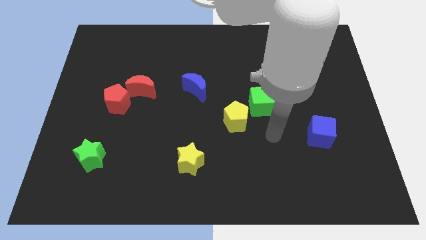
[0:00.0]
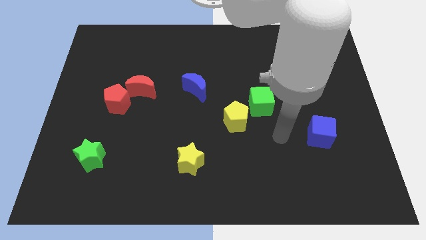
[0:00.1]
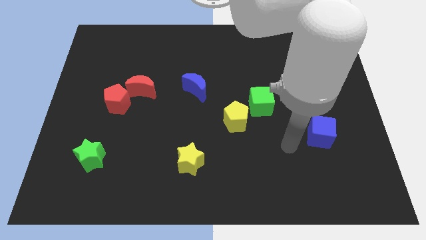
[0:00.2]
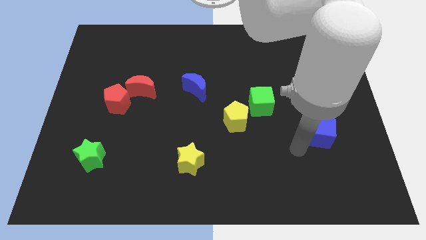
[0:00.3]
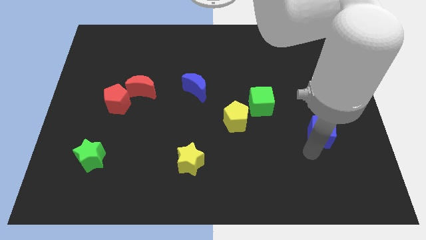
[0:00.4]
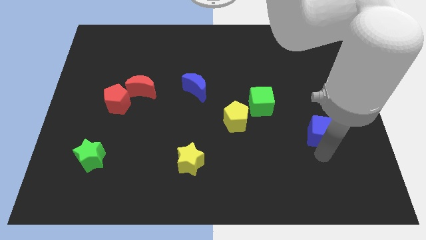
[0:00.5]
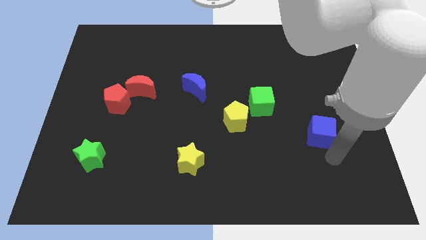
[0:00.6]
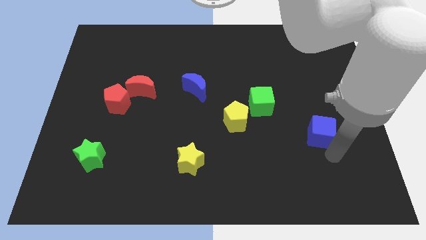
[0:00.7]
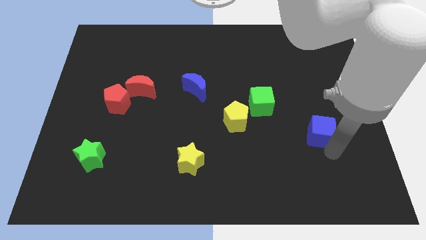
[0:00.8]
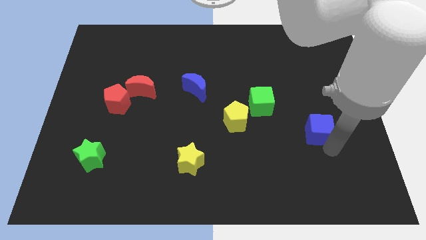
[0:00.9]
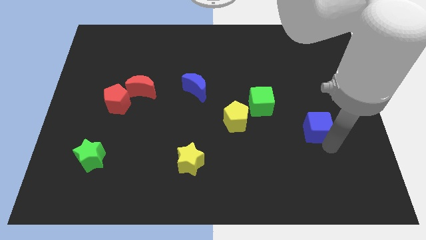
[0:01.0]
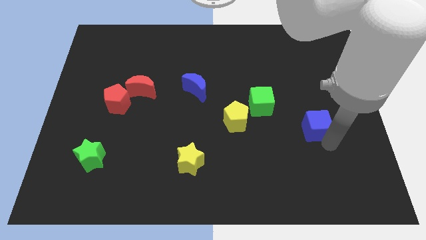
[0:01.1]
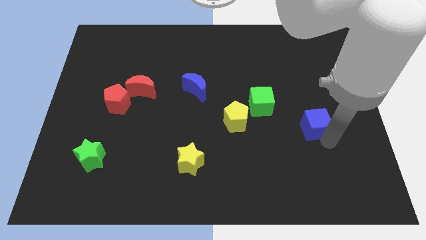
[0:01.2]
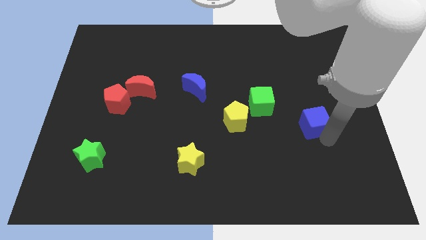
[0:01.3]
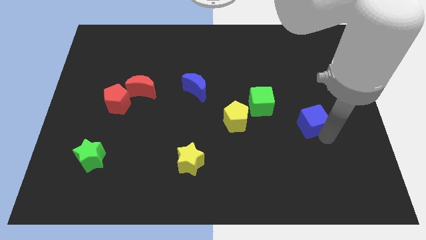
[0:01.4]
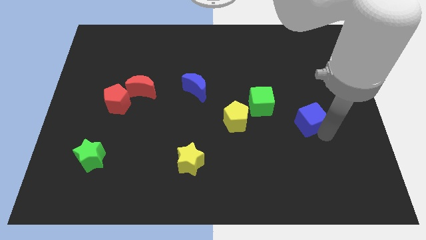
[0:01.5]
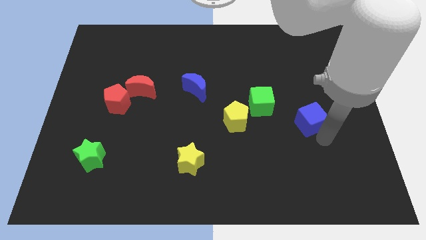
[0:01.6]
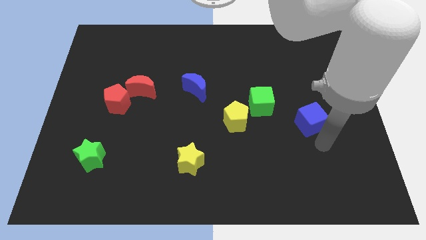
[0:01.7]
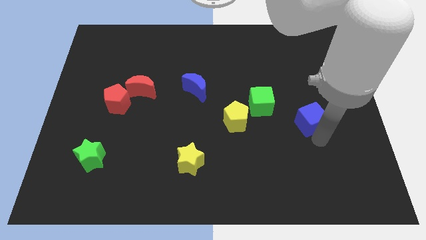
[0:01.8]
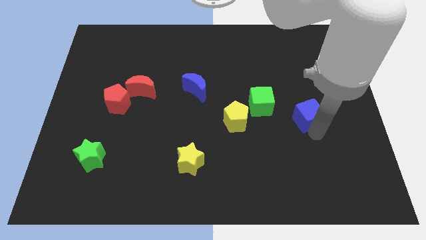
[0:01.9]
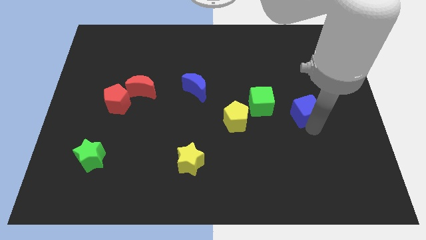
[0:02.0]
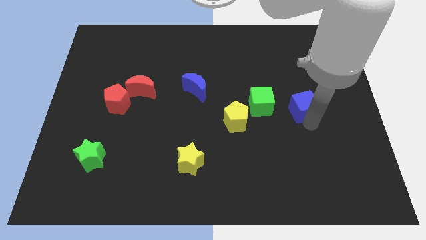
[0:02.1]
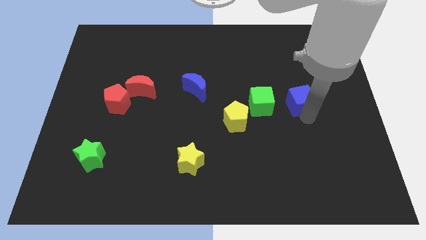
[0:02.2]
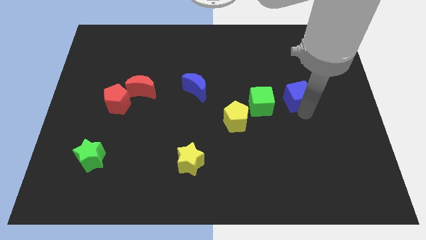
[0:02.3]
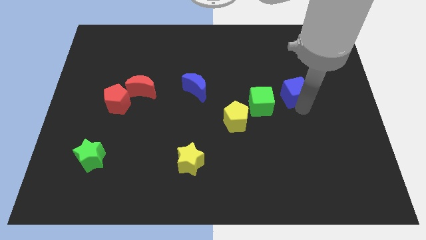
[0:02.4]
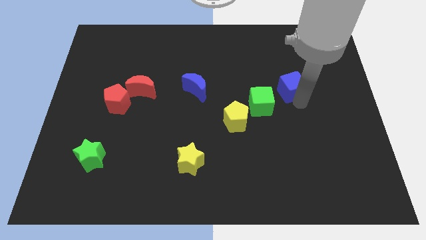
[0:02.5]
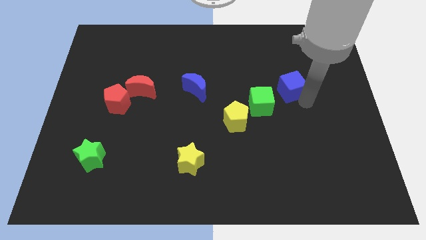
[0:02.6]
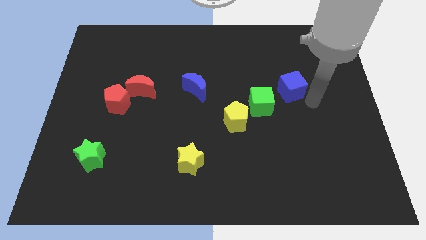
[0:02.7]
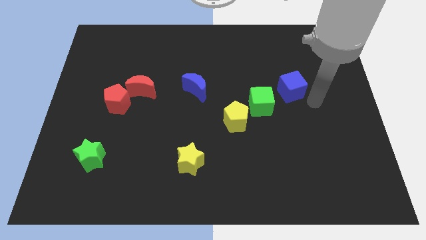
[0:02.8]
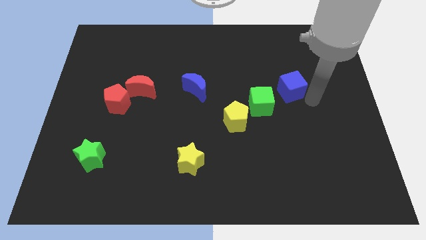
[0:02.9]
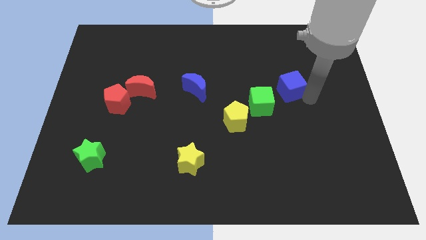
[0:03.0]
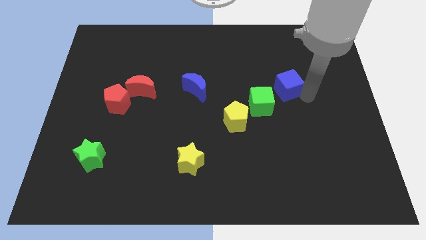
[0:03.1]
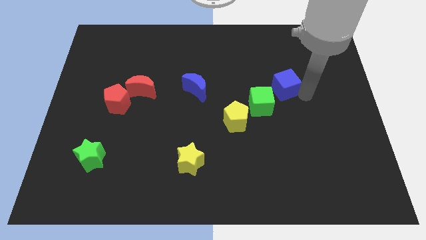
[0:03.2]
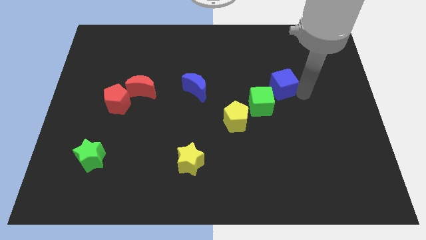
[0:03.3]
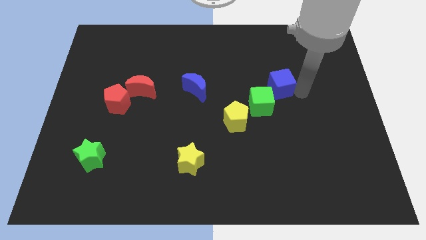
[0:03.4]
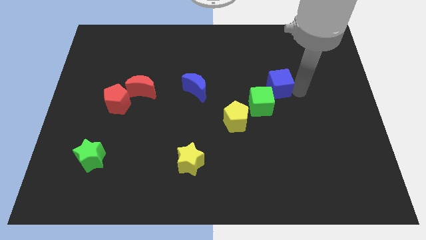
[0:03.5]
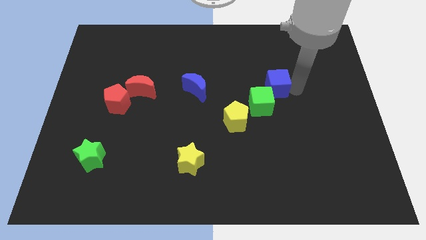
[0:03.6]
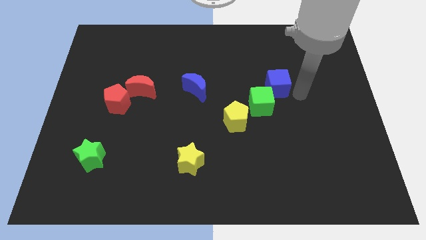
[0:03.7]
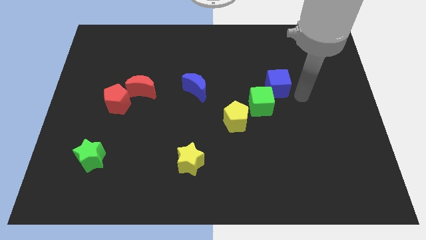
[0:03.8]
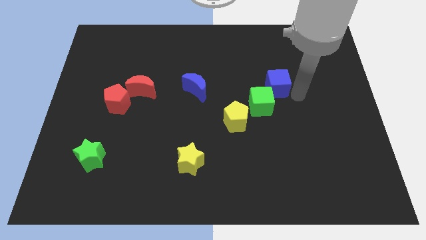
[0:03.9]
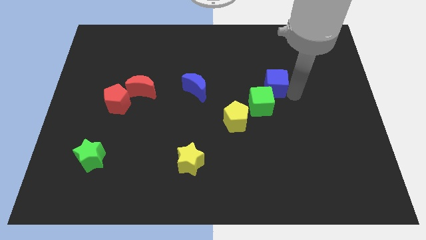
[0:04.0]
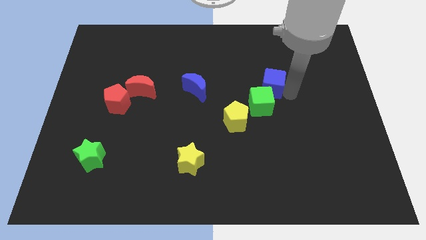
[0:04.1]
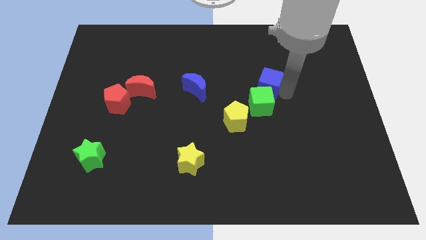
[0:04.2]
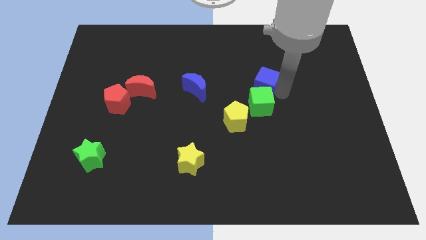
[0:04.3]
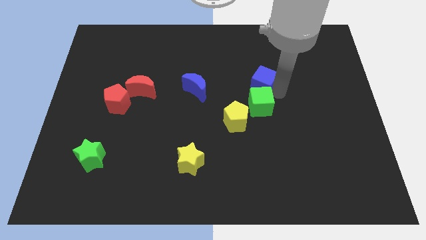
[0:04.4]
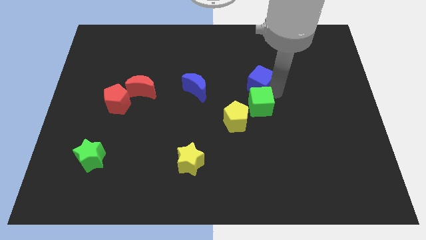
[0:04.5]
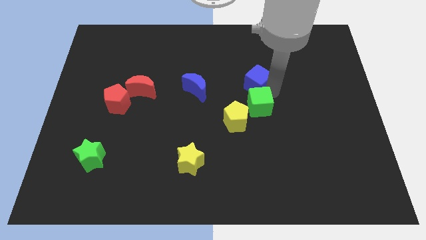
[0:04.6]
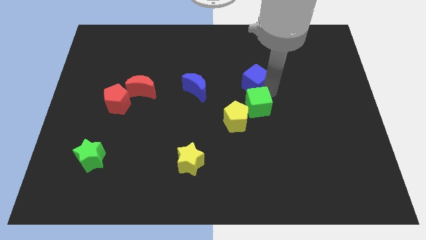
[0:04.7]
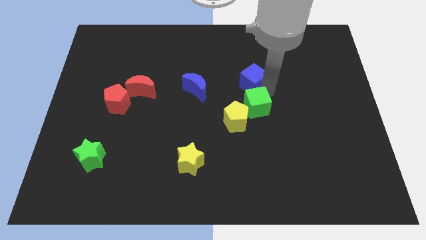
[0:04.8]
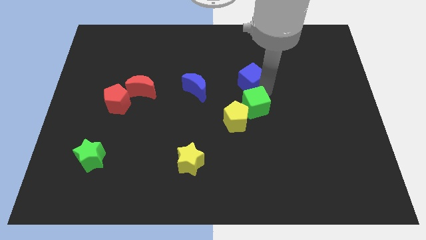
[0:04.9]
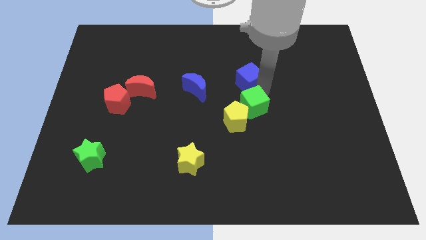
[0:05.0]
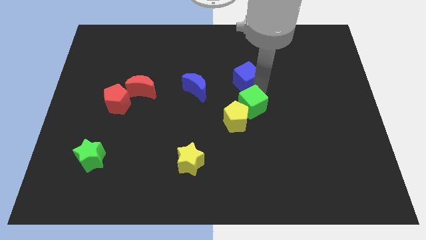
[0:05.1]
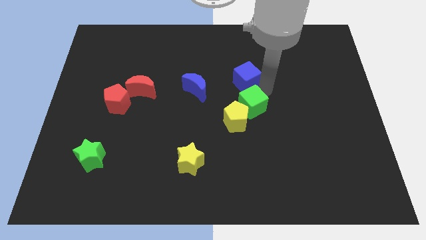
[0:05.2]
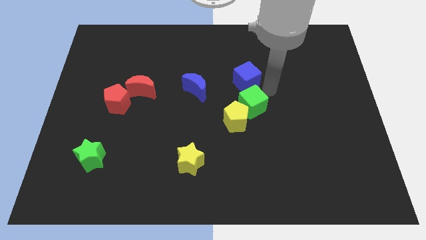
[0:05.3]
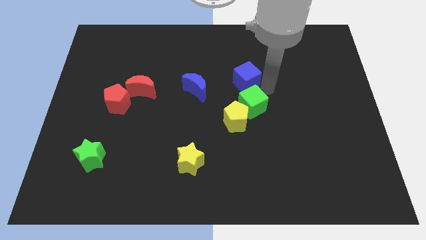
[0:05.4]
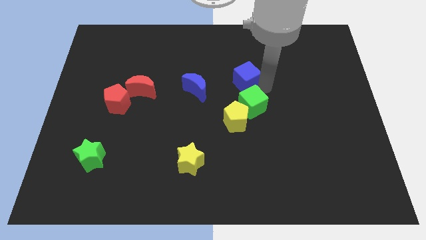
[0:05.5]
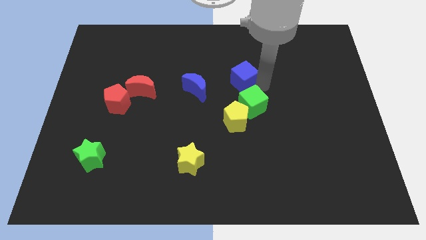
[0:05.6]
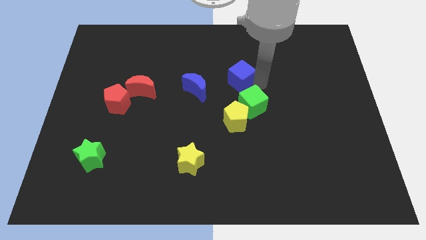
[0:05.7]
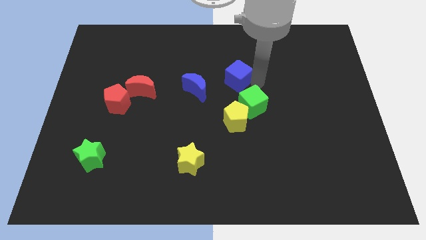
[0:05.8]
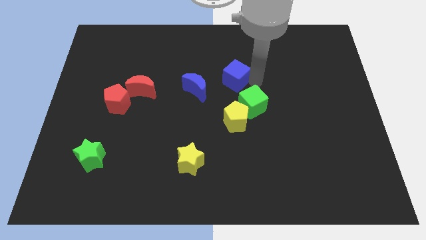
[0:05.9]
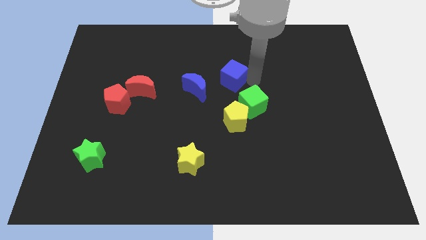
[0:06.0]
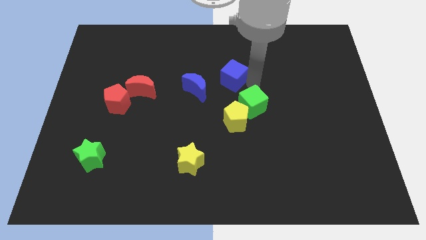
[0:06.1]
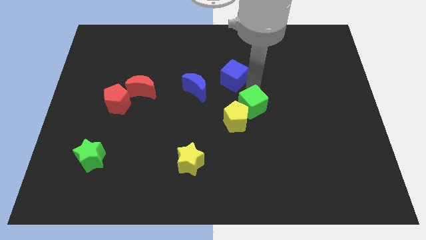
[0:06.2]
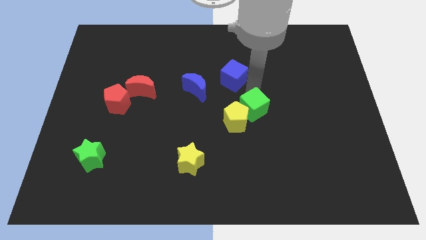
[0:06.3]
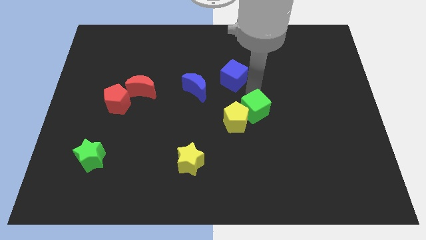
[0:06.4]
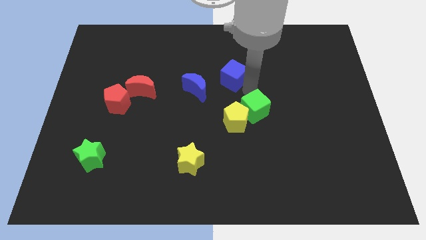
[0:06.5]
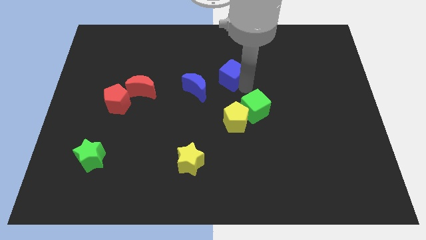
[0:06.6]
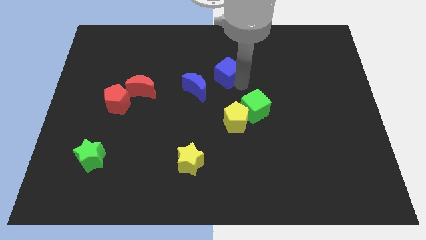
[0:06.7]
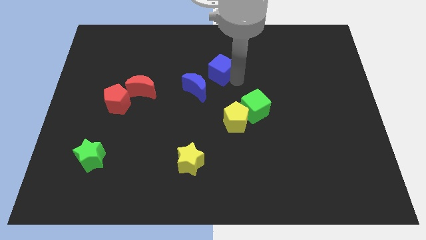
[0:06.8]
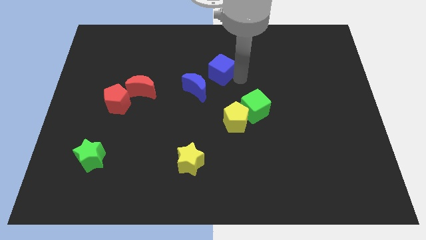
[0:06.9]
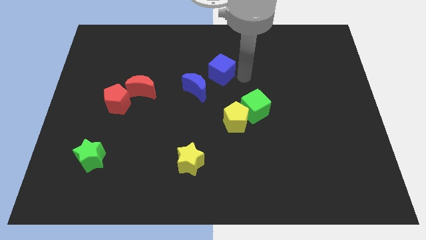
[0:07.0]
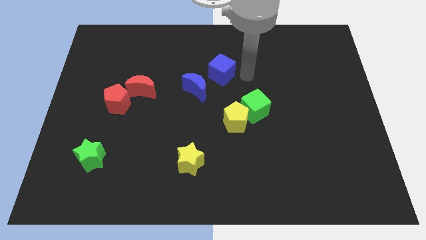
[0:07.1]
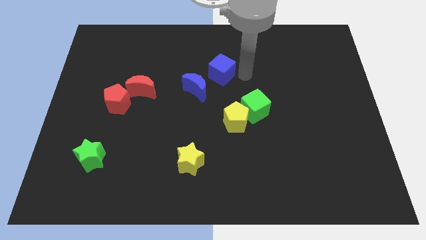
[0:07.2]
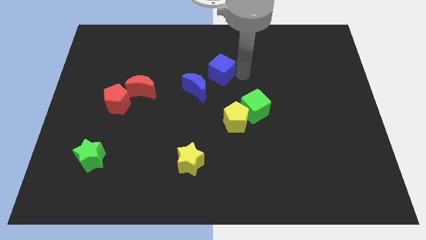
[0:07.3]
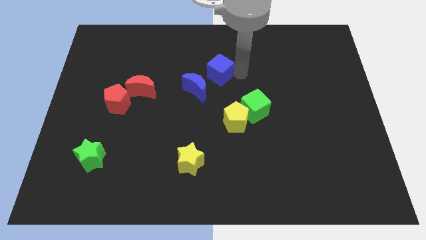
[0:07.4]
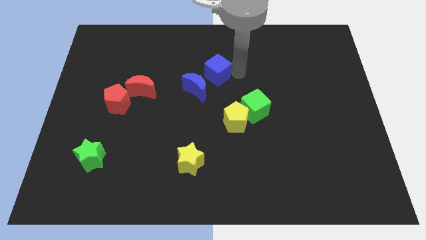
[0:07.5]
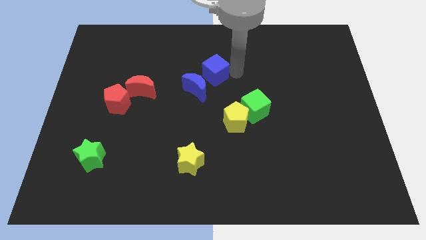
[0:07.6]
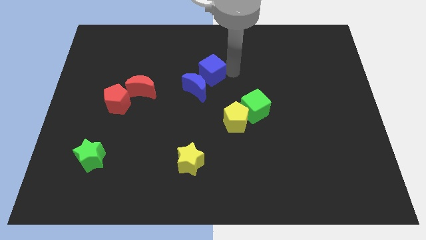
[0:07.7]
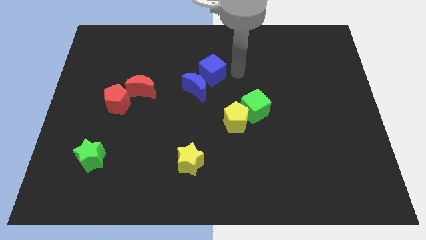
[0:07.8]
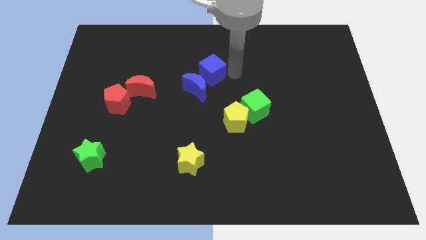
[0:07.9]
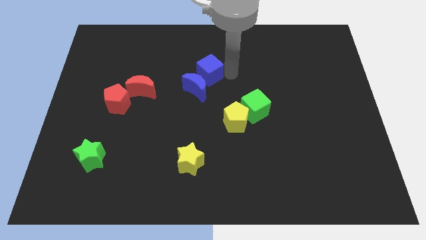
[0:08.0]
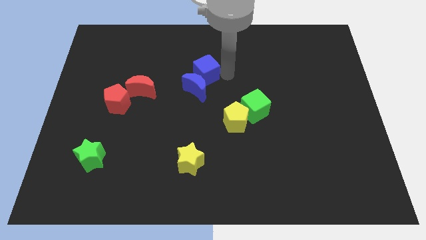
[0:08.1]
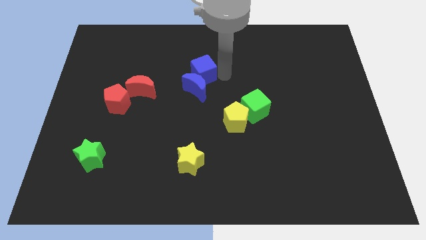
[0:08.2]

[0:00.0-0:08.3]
push the blue cube to the top left side of the blue moon
